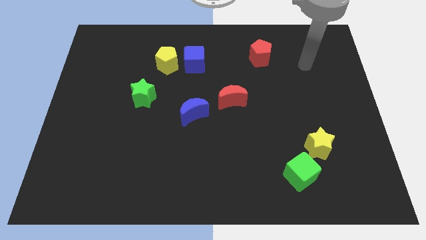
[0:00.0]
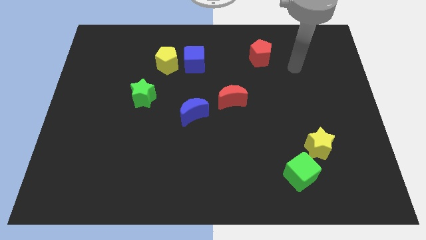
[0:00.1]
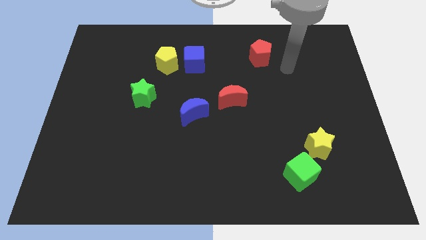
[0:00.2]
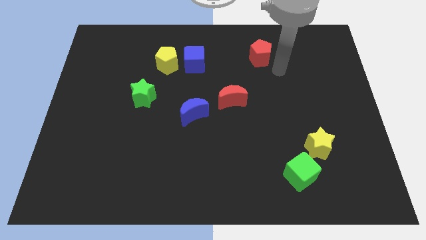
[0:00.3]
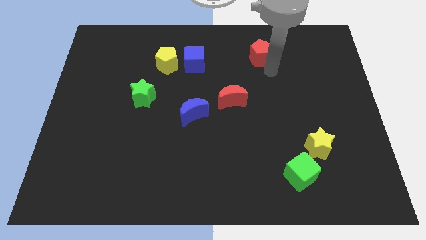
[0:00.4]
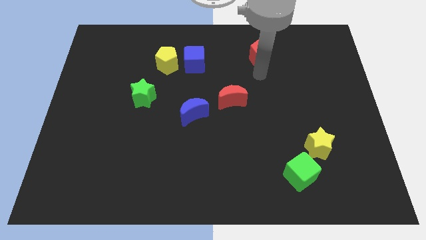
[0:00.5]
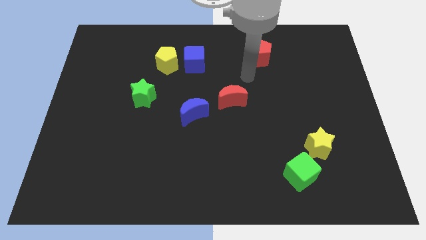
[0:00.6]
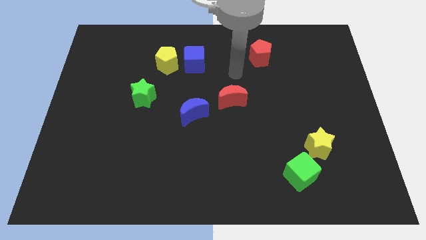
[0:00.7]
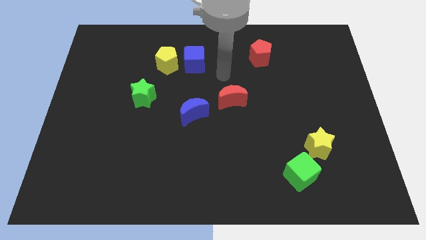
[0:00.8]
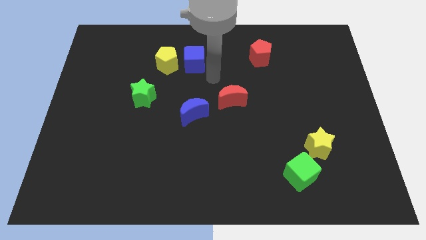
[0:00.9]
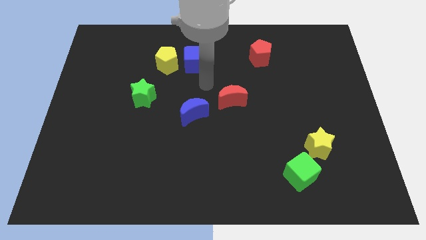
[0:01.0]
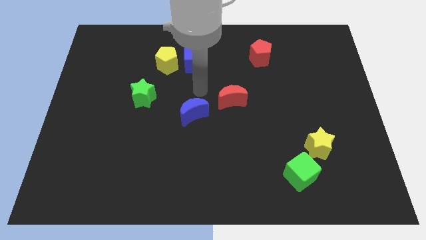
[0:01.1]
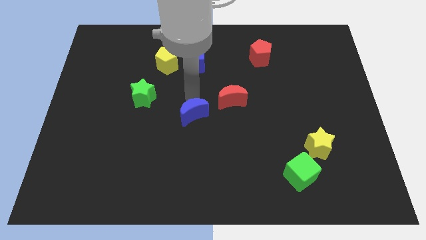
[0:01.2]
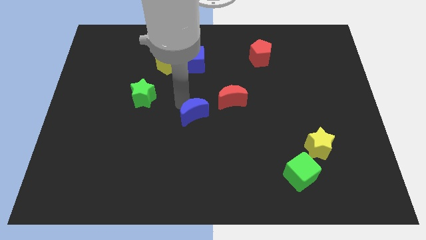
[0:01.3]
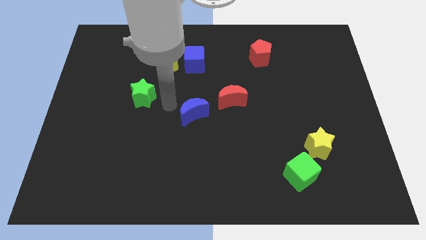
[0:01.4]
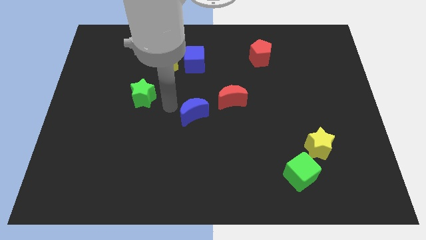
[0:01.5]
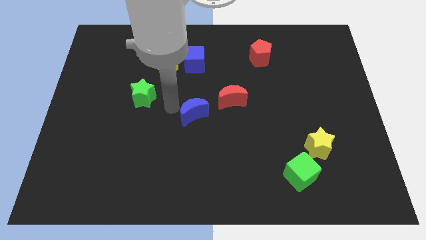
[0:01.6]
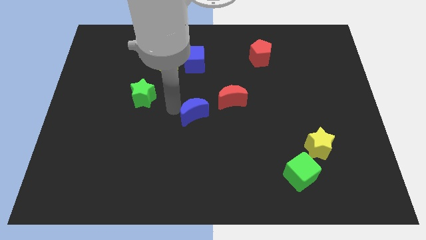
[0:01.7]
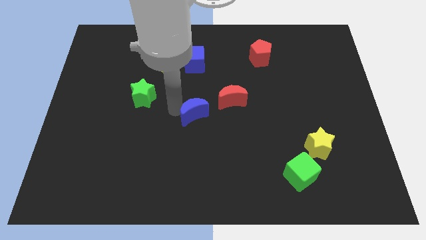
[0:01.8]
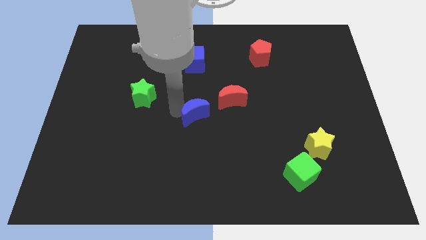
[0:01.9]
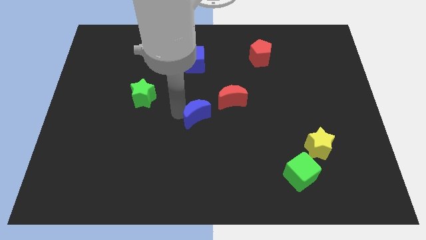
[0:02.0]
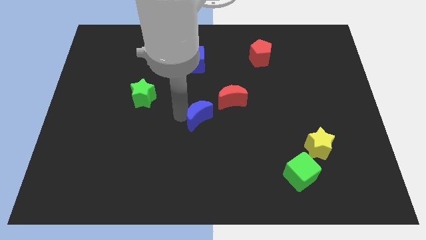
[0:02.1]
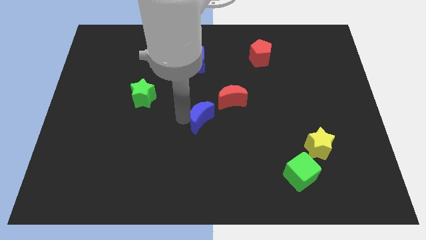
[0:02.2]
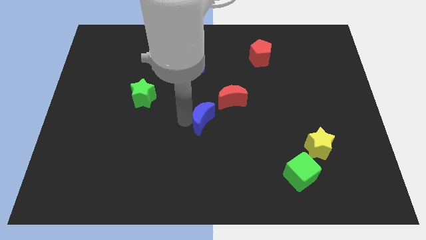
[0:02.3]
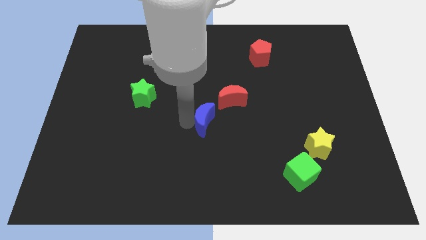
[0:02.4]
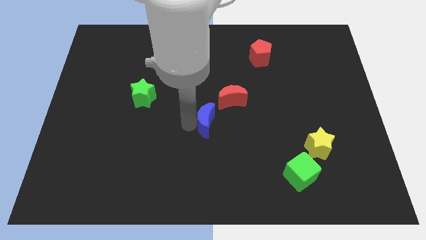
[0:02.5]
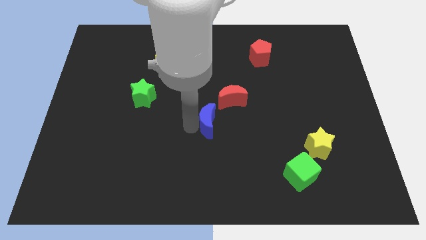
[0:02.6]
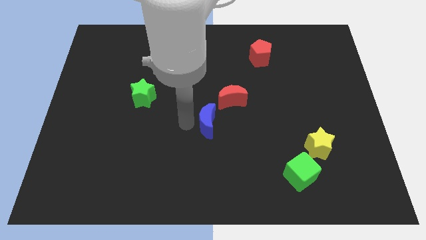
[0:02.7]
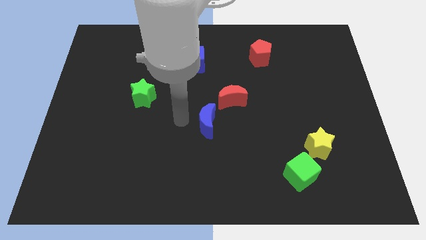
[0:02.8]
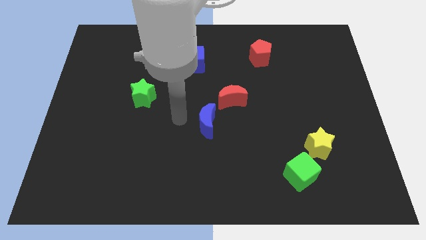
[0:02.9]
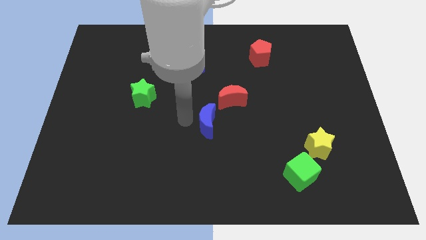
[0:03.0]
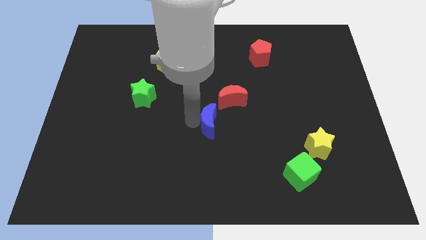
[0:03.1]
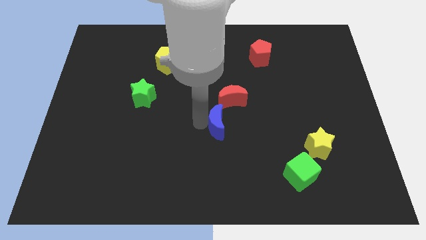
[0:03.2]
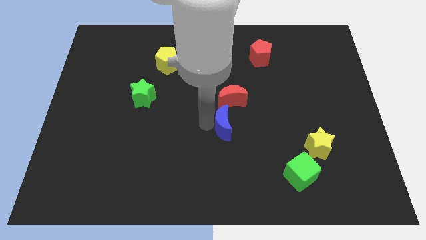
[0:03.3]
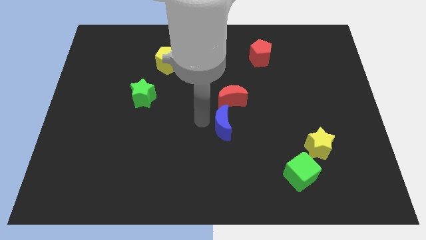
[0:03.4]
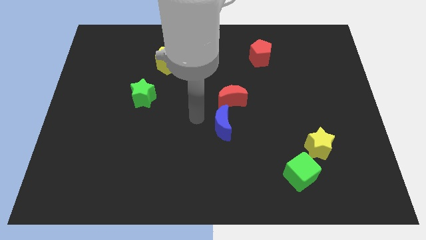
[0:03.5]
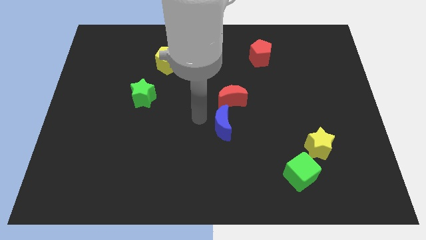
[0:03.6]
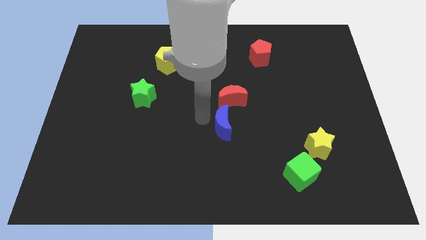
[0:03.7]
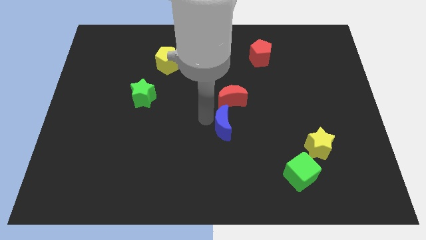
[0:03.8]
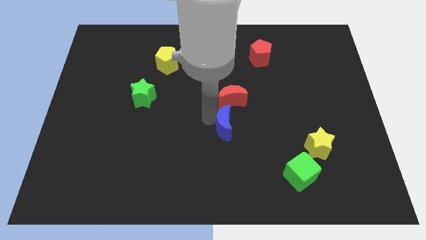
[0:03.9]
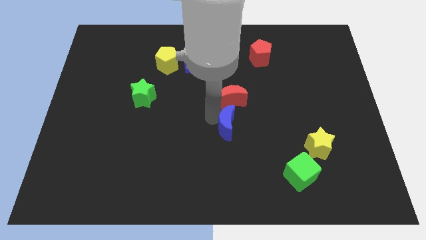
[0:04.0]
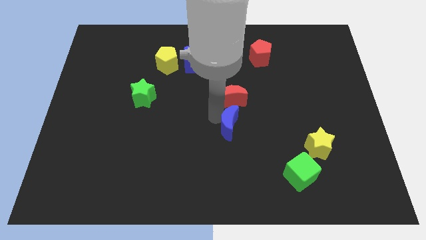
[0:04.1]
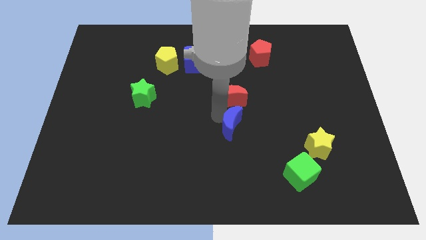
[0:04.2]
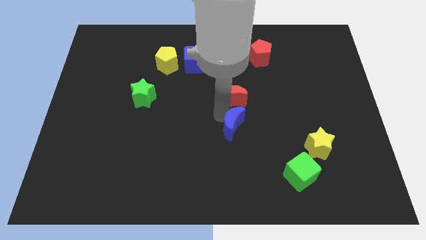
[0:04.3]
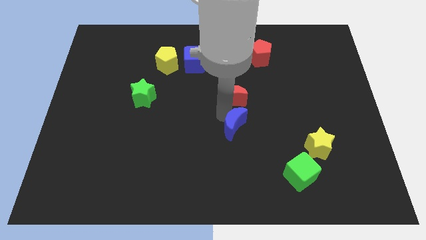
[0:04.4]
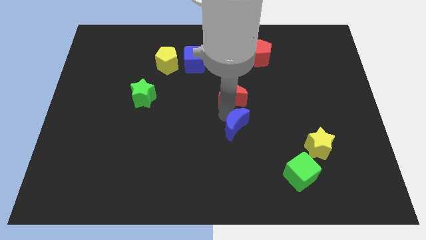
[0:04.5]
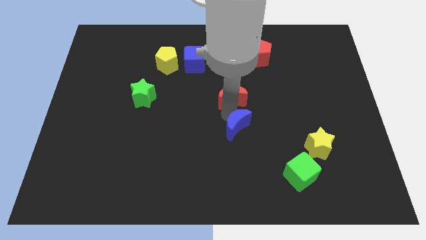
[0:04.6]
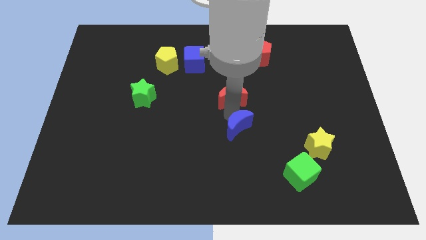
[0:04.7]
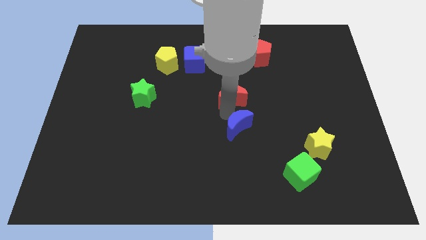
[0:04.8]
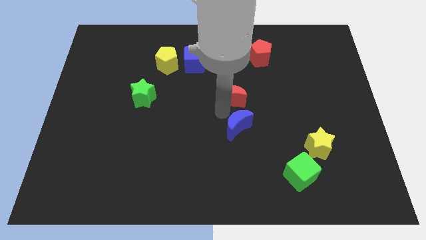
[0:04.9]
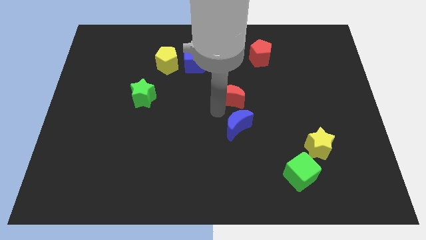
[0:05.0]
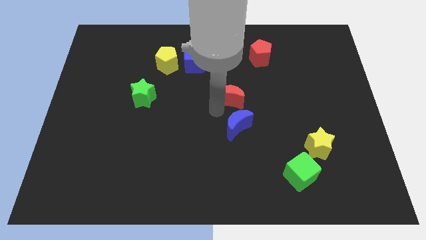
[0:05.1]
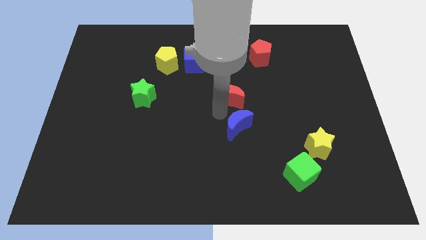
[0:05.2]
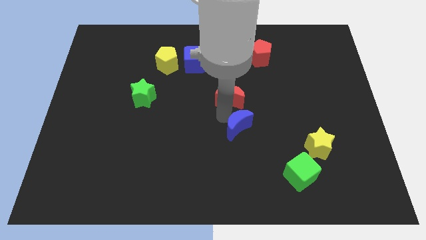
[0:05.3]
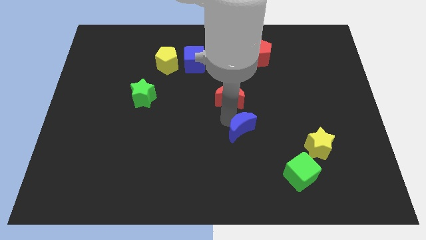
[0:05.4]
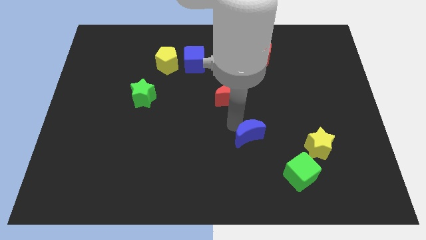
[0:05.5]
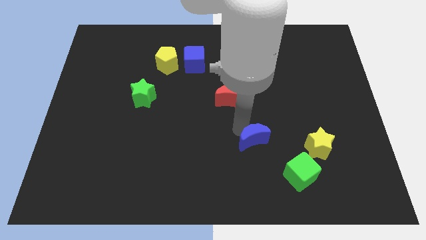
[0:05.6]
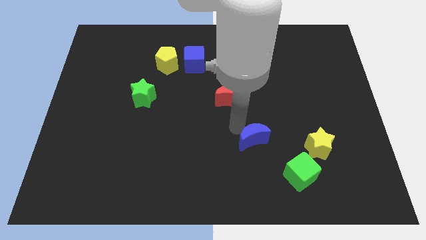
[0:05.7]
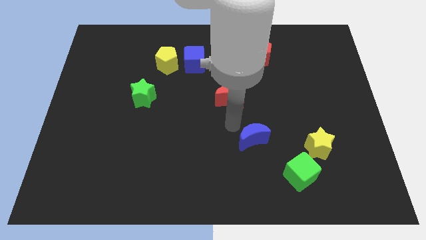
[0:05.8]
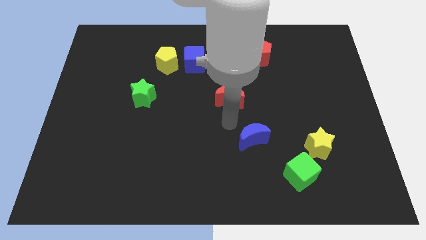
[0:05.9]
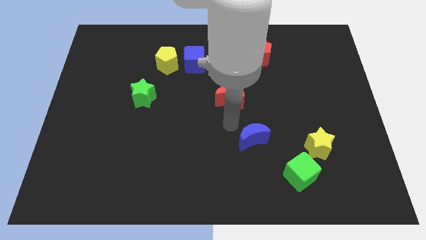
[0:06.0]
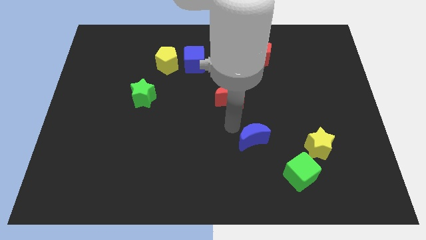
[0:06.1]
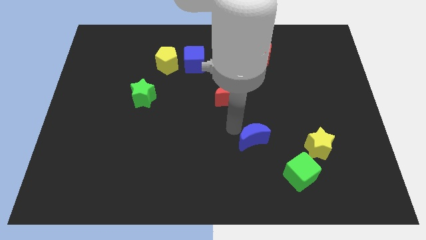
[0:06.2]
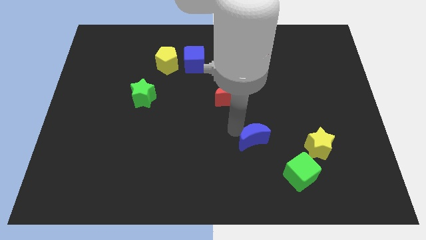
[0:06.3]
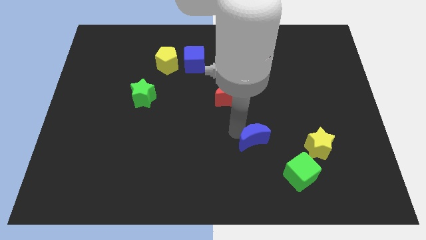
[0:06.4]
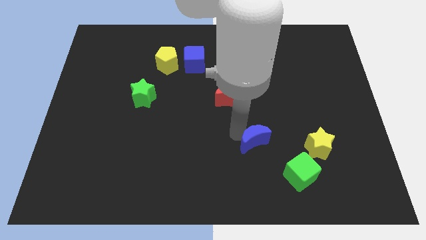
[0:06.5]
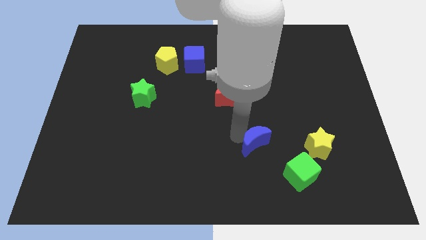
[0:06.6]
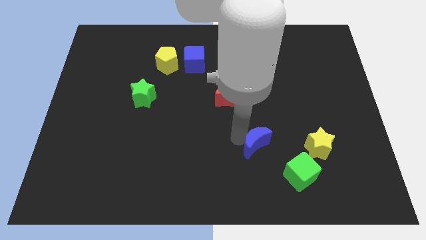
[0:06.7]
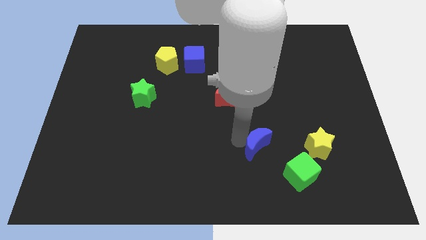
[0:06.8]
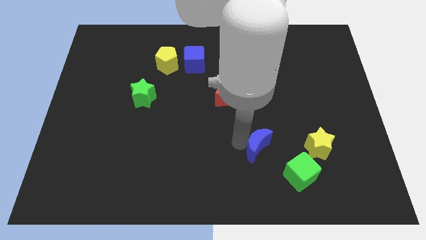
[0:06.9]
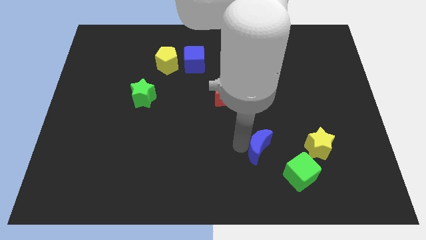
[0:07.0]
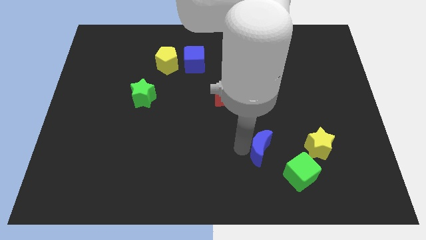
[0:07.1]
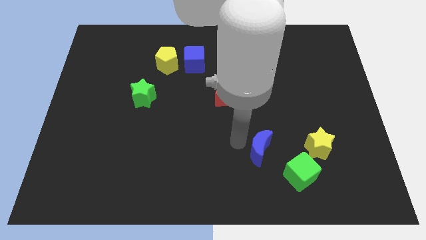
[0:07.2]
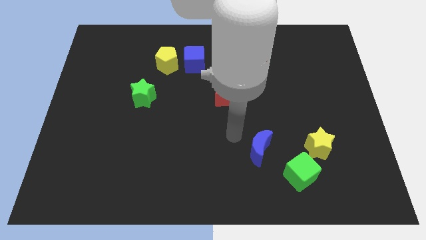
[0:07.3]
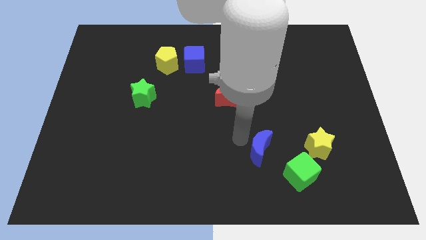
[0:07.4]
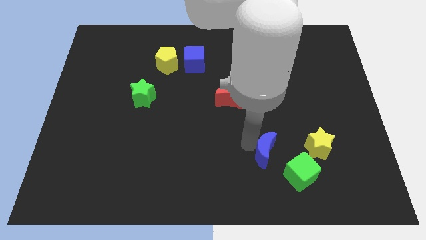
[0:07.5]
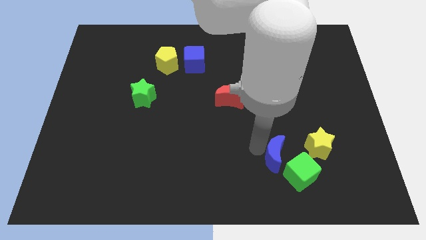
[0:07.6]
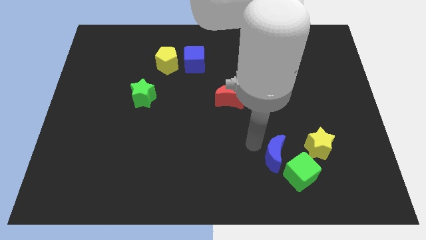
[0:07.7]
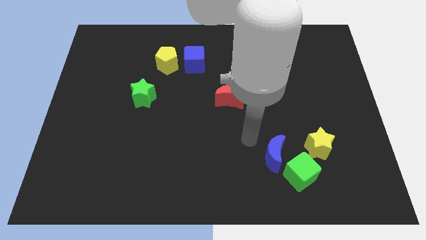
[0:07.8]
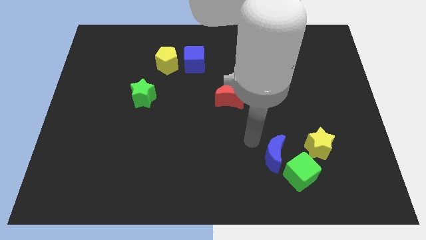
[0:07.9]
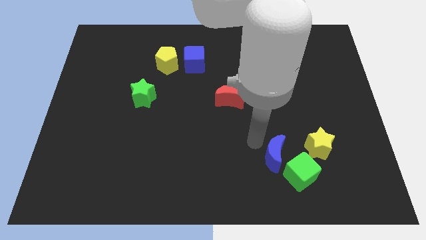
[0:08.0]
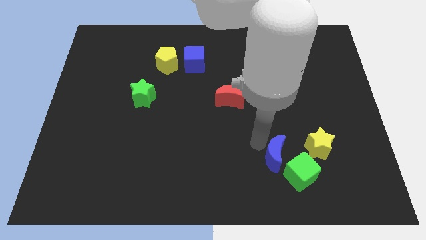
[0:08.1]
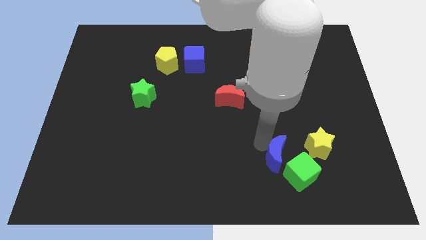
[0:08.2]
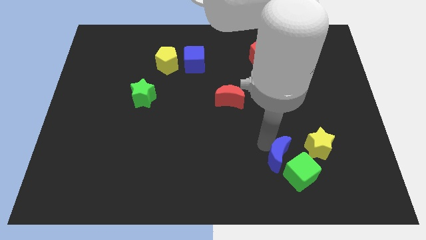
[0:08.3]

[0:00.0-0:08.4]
move the blue moon close to the green cube

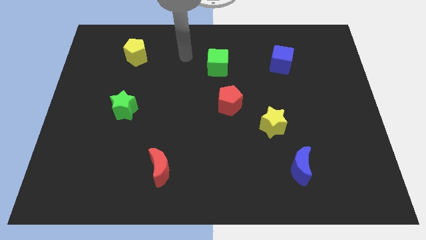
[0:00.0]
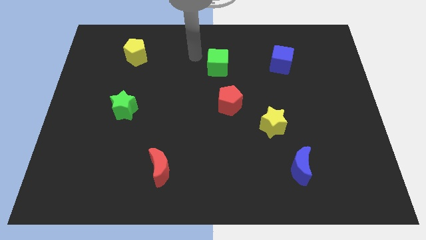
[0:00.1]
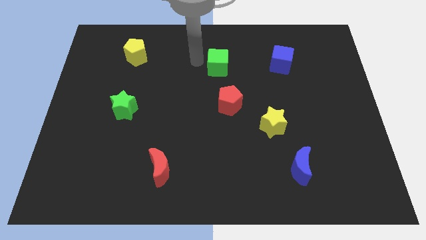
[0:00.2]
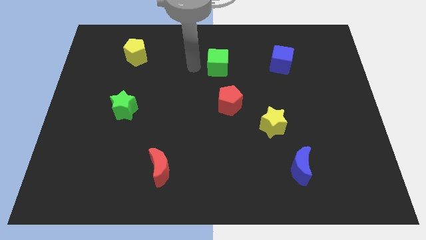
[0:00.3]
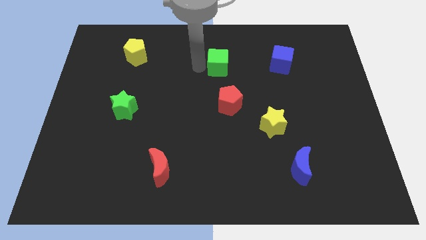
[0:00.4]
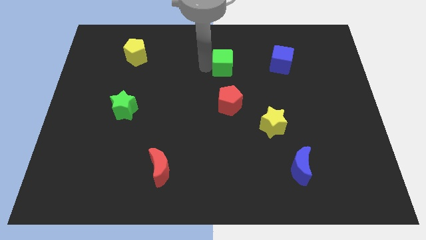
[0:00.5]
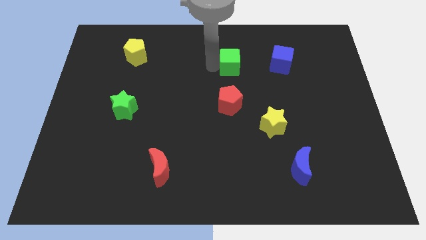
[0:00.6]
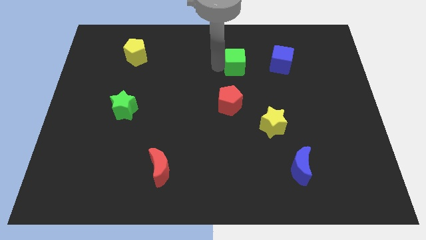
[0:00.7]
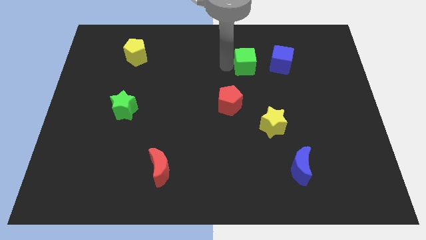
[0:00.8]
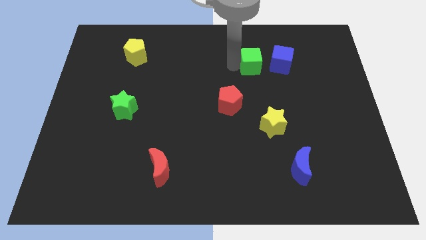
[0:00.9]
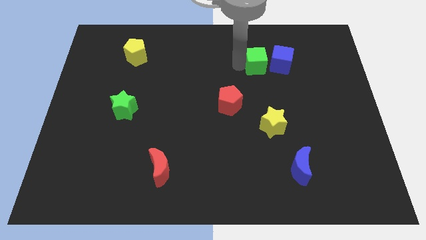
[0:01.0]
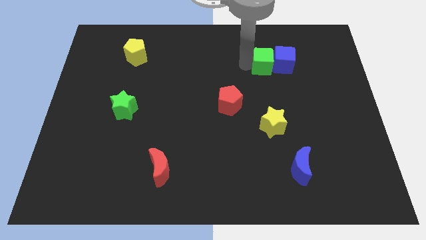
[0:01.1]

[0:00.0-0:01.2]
move the green cube towards the blue cube
